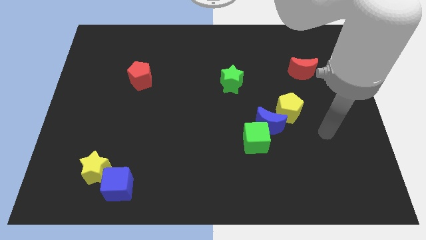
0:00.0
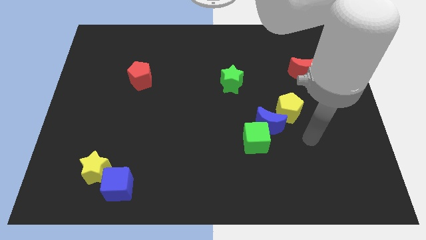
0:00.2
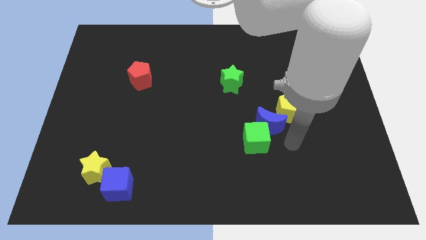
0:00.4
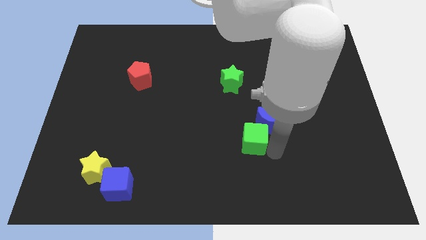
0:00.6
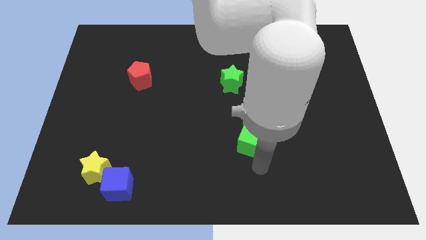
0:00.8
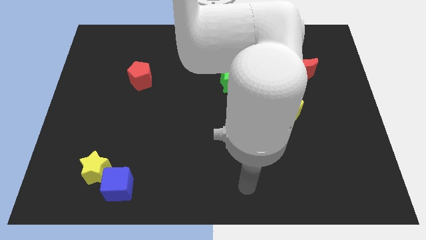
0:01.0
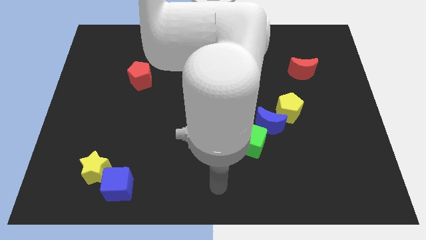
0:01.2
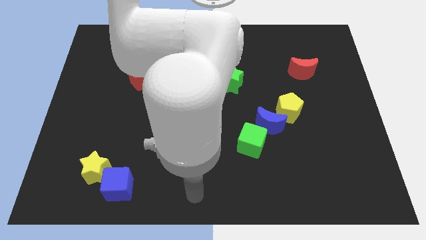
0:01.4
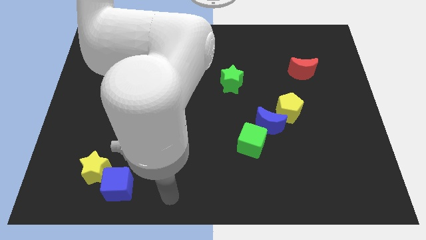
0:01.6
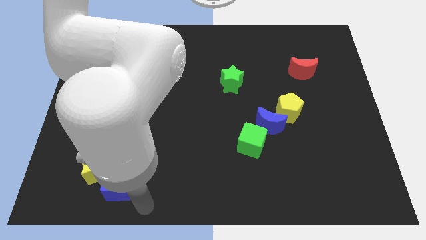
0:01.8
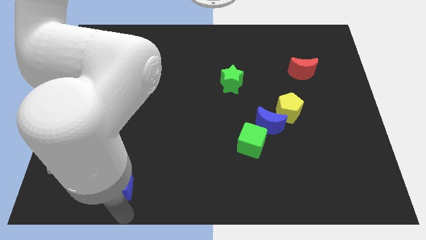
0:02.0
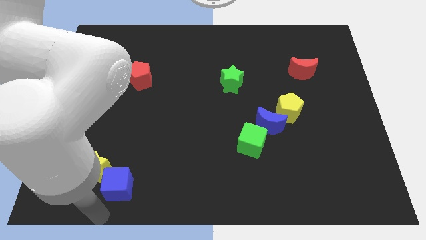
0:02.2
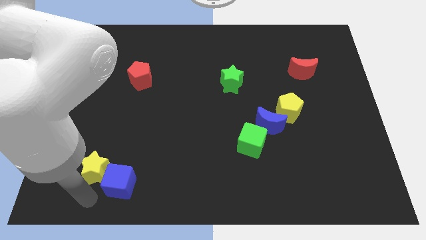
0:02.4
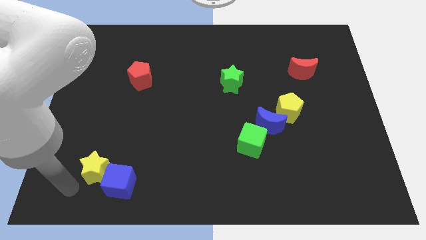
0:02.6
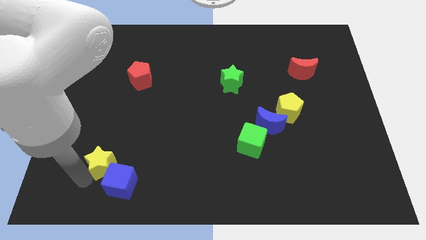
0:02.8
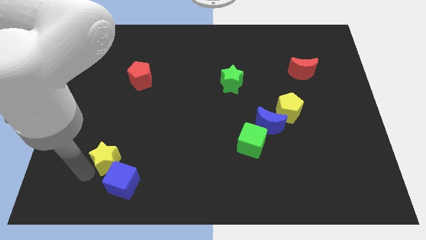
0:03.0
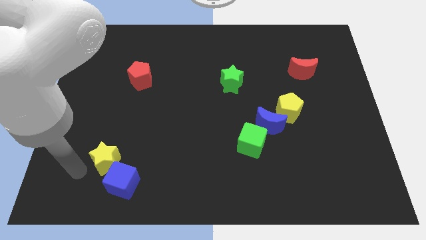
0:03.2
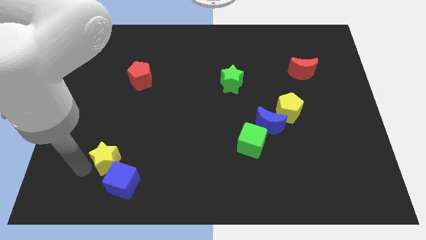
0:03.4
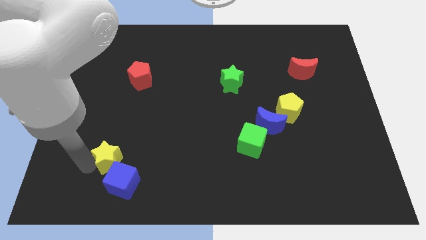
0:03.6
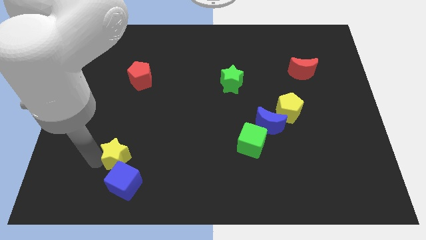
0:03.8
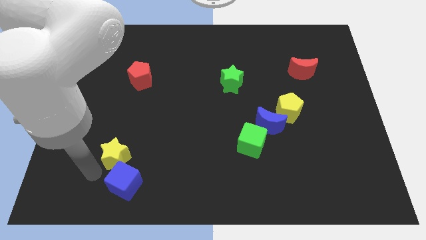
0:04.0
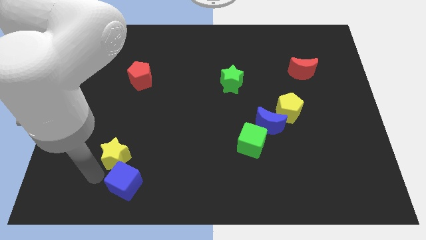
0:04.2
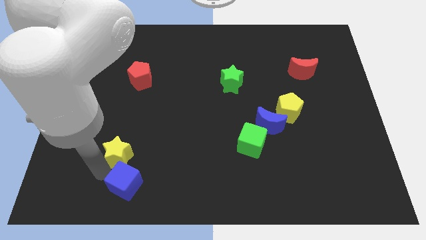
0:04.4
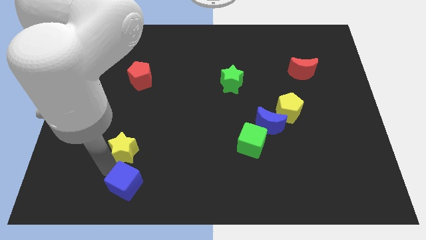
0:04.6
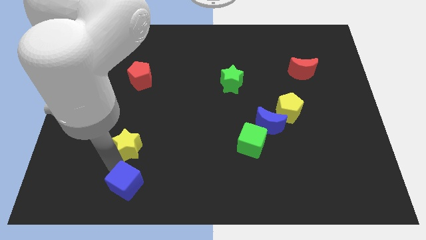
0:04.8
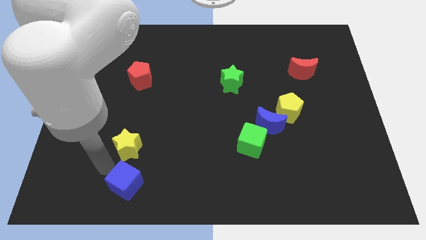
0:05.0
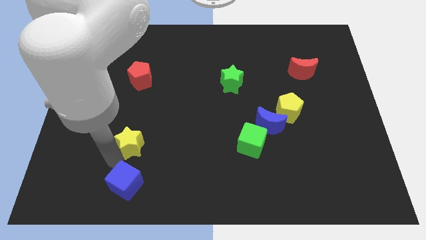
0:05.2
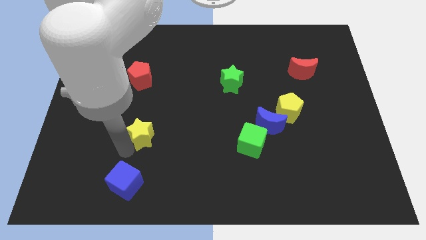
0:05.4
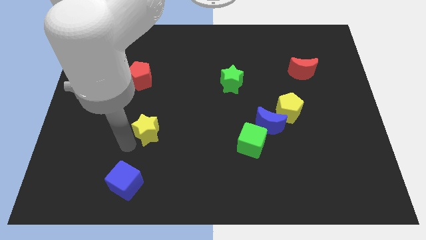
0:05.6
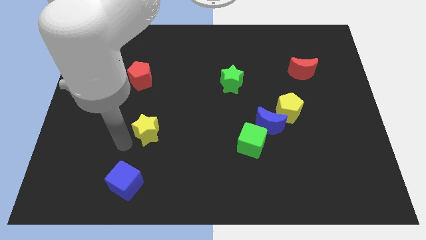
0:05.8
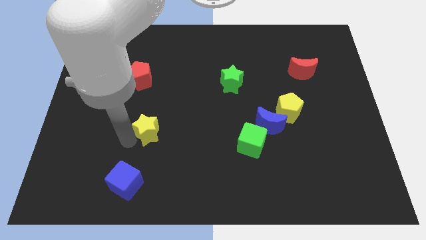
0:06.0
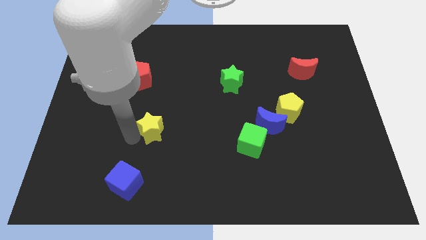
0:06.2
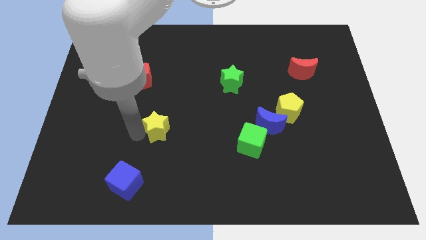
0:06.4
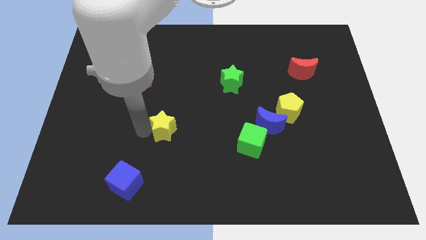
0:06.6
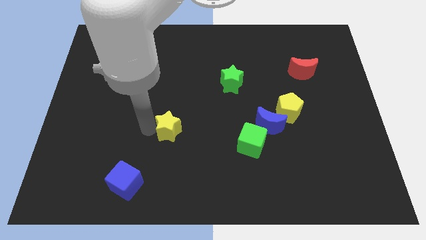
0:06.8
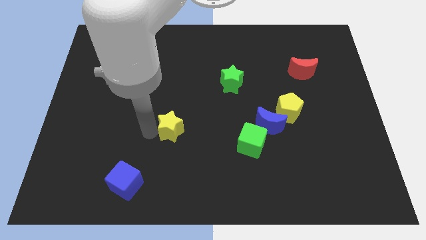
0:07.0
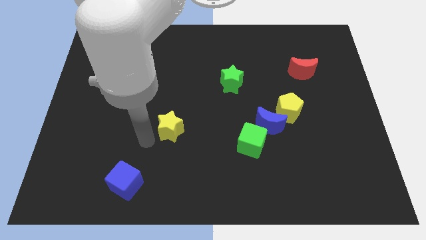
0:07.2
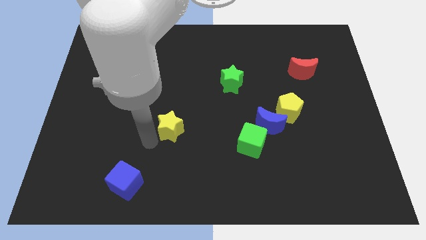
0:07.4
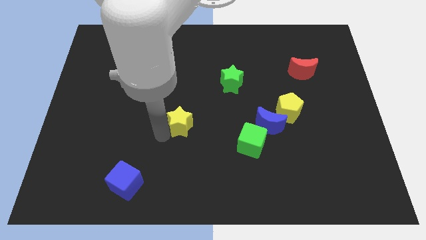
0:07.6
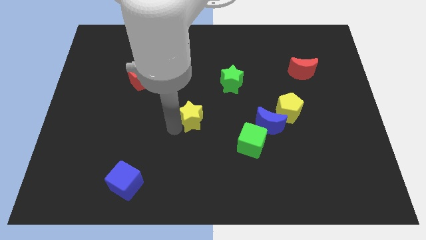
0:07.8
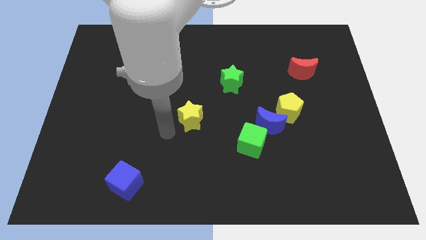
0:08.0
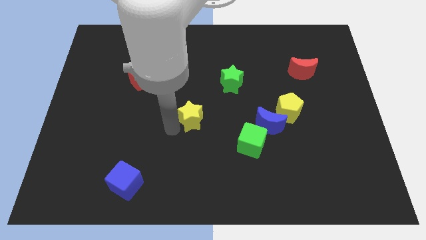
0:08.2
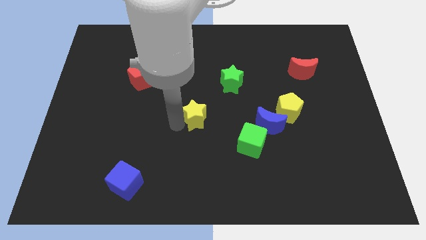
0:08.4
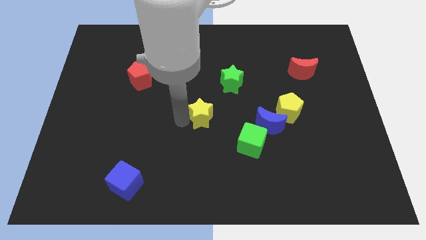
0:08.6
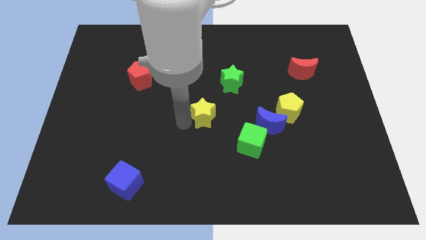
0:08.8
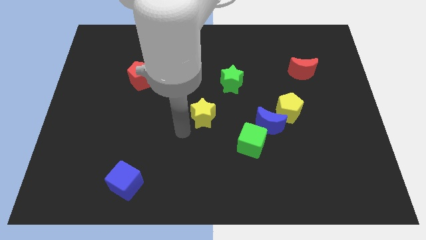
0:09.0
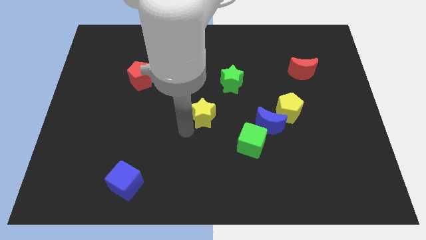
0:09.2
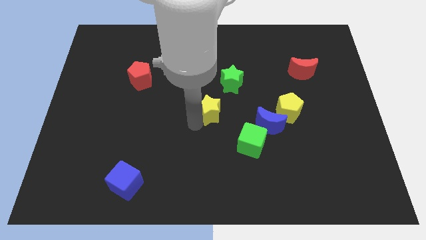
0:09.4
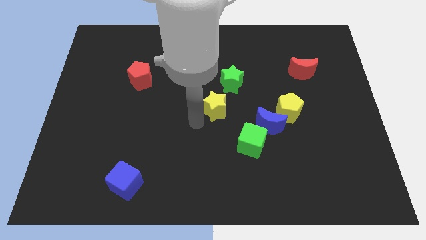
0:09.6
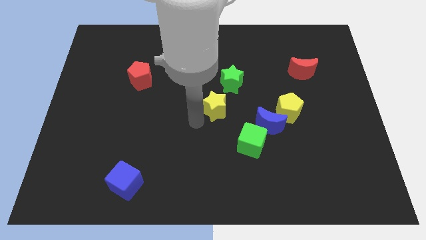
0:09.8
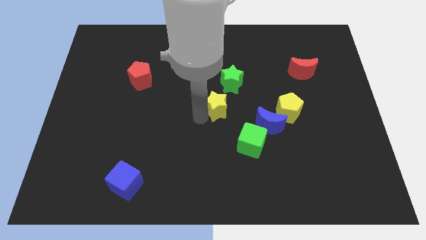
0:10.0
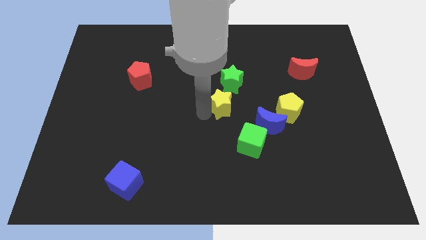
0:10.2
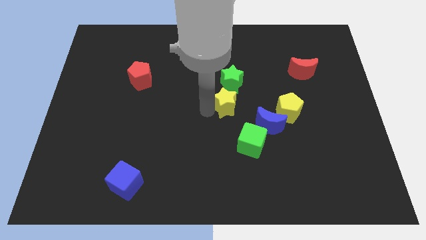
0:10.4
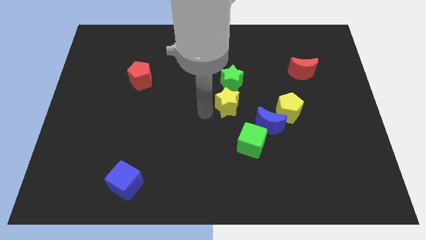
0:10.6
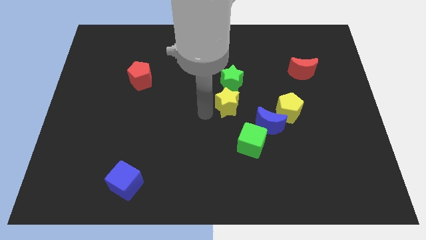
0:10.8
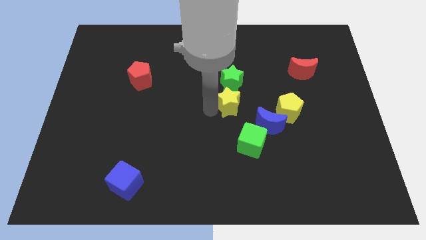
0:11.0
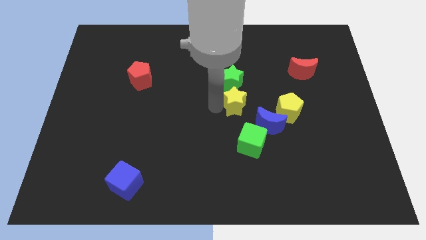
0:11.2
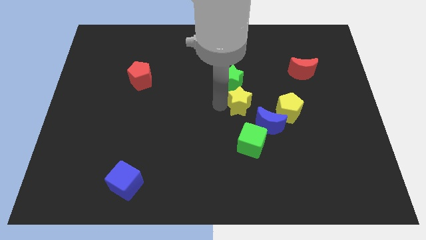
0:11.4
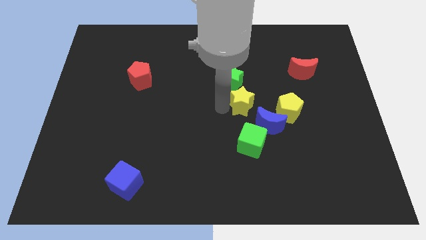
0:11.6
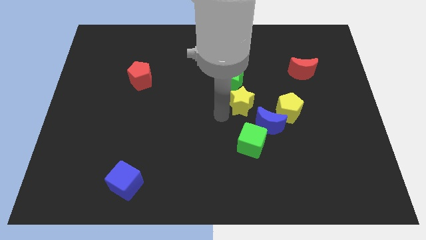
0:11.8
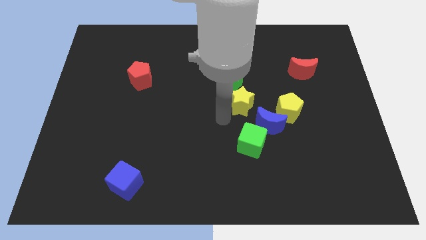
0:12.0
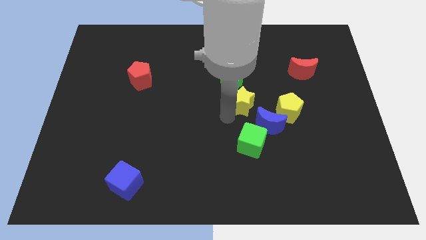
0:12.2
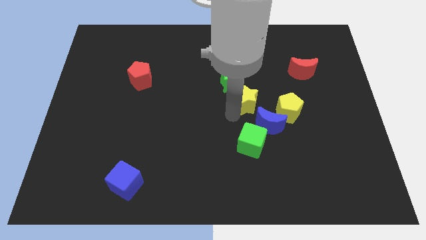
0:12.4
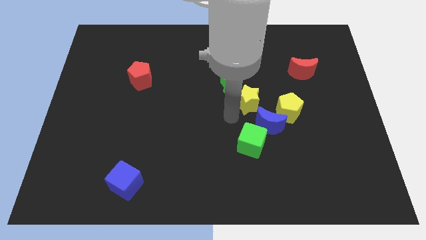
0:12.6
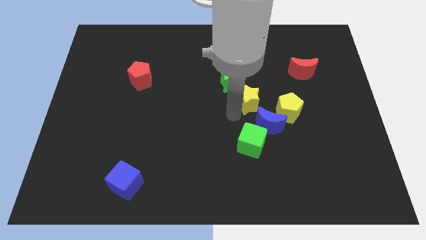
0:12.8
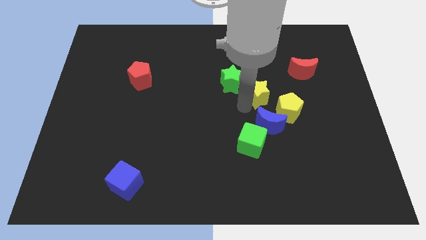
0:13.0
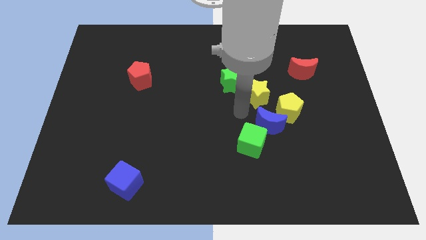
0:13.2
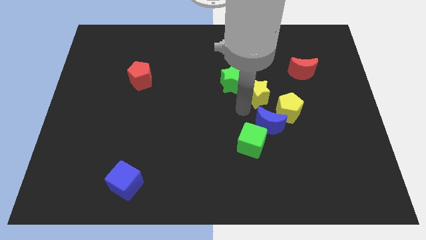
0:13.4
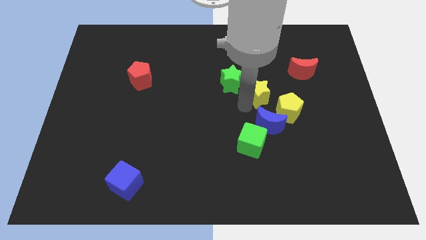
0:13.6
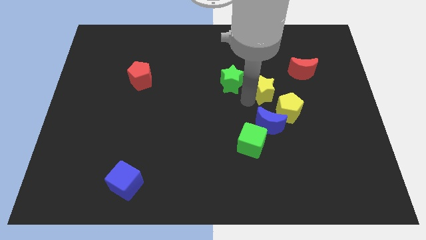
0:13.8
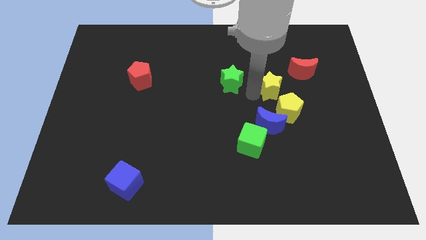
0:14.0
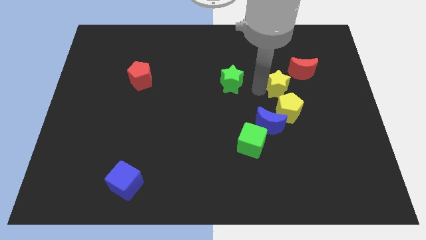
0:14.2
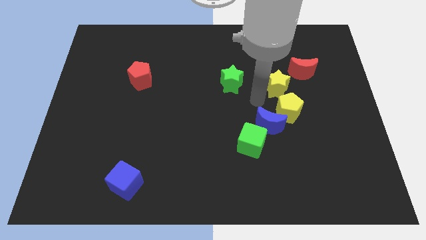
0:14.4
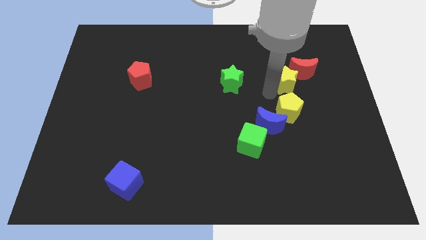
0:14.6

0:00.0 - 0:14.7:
move the yellow star next to the red moon
